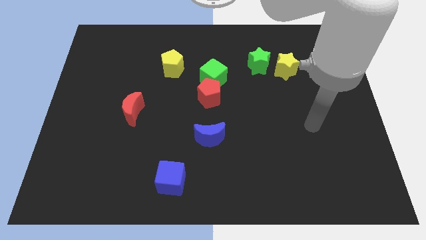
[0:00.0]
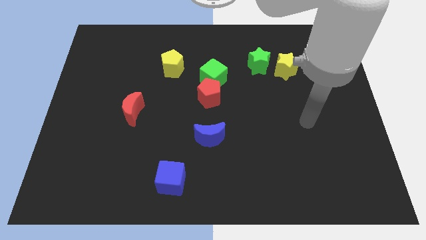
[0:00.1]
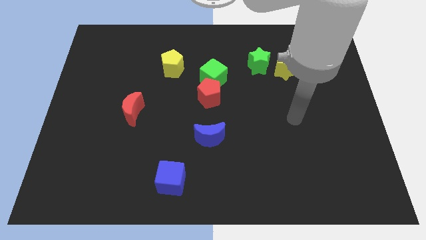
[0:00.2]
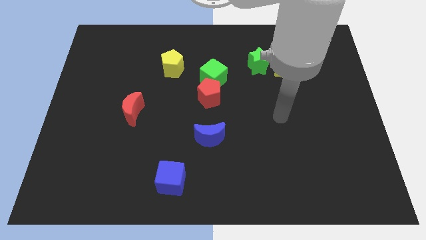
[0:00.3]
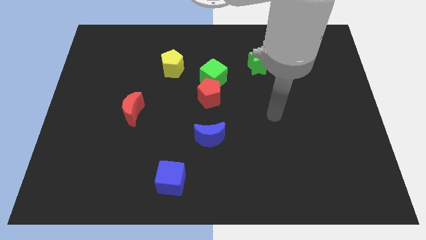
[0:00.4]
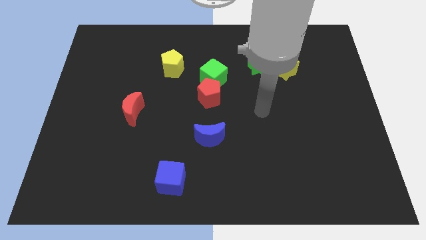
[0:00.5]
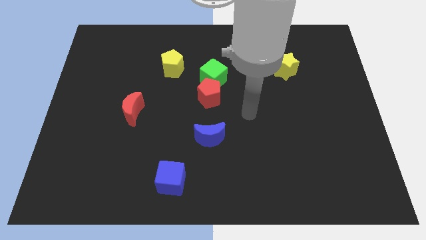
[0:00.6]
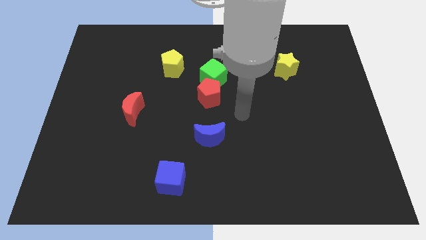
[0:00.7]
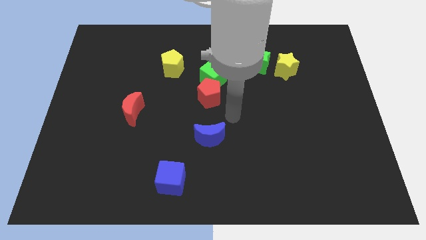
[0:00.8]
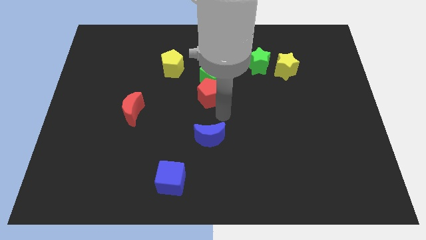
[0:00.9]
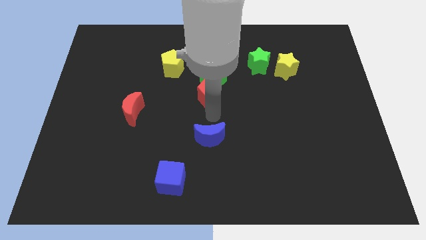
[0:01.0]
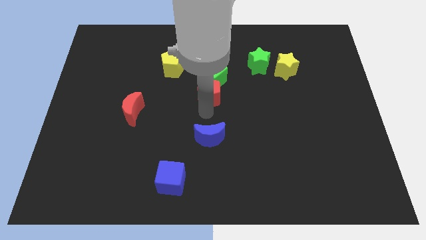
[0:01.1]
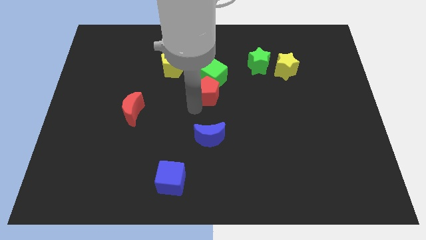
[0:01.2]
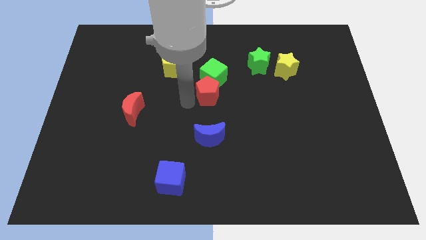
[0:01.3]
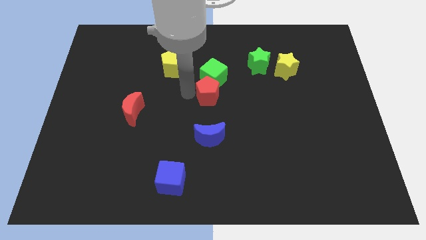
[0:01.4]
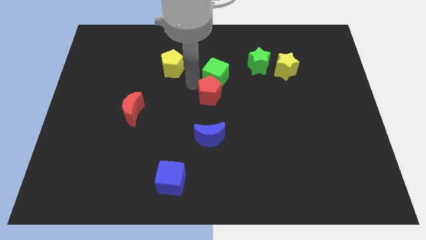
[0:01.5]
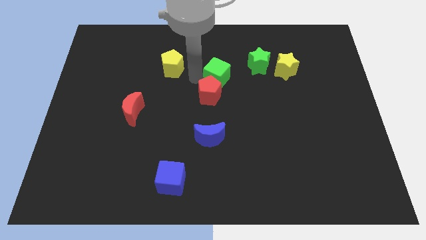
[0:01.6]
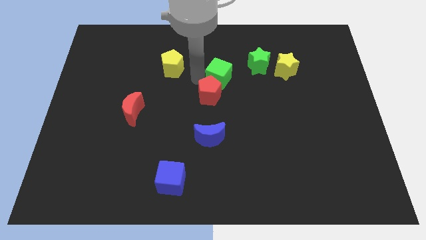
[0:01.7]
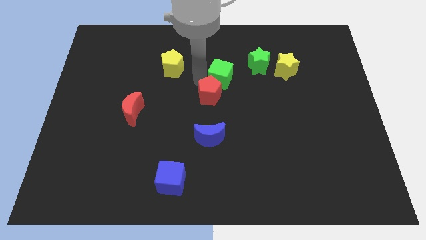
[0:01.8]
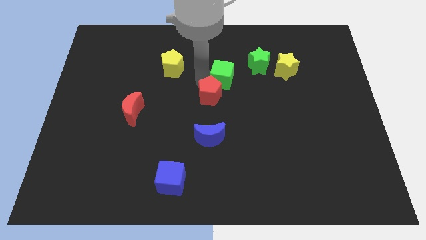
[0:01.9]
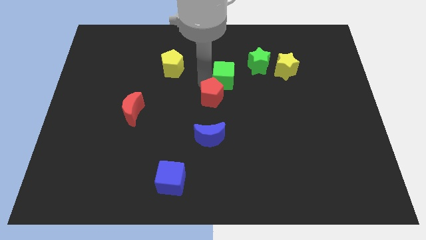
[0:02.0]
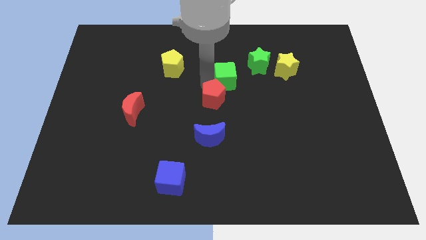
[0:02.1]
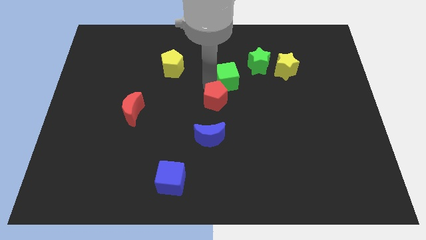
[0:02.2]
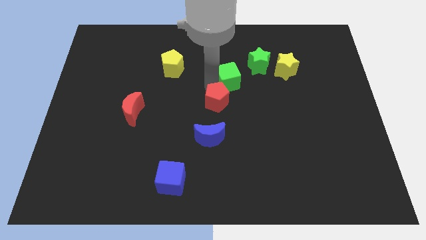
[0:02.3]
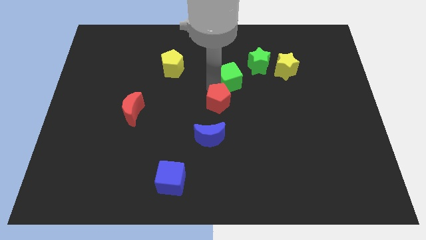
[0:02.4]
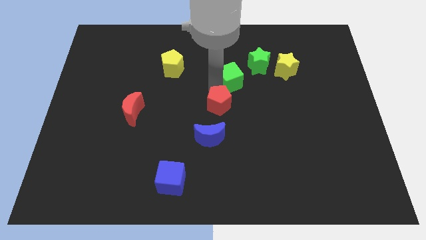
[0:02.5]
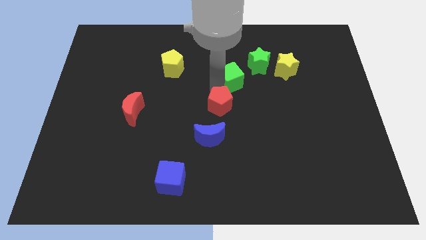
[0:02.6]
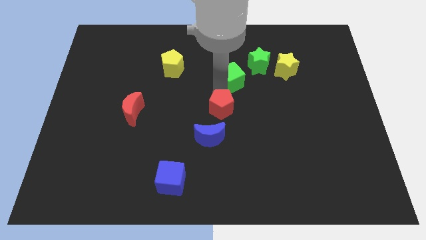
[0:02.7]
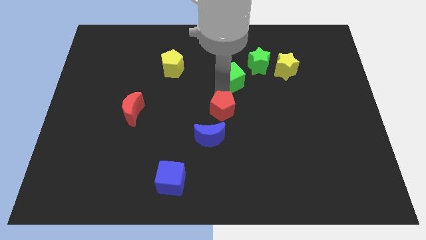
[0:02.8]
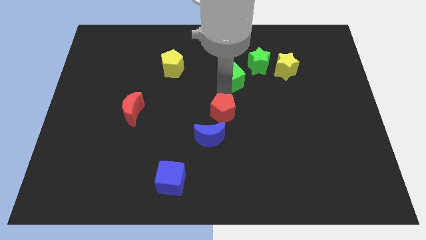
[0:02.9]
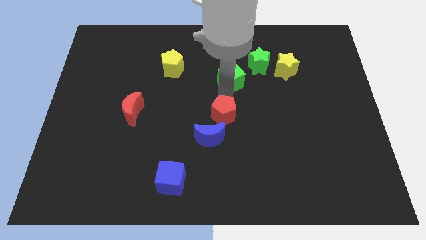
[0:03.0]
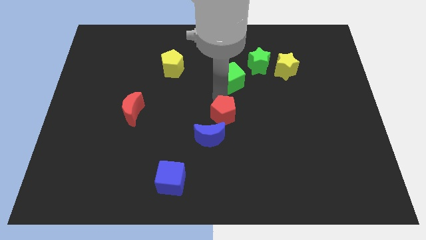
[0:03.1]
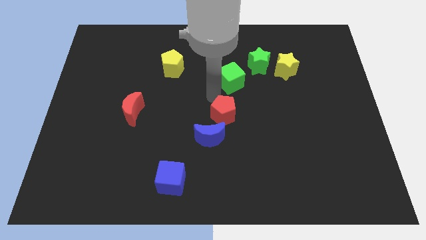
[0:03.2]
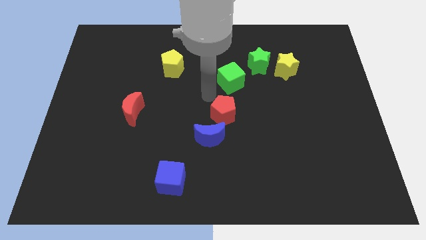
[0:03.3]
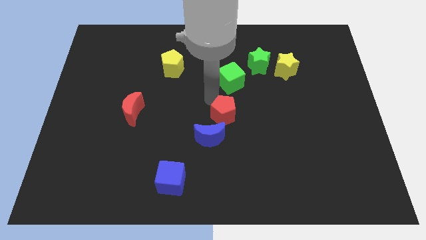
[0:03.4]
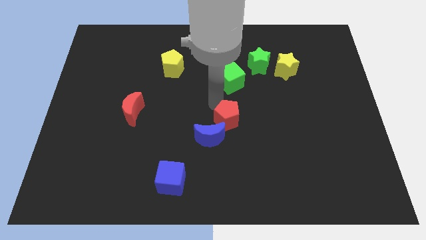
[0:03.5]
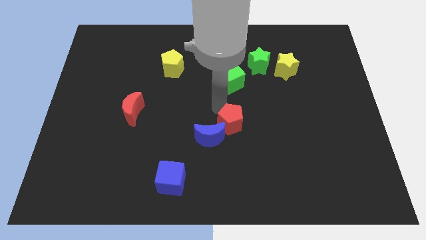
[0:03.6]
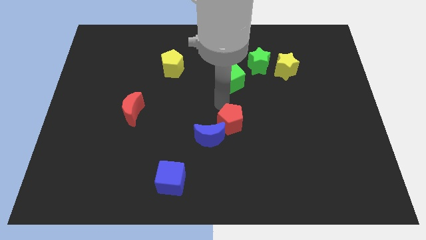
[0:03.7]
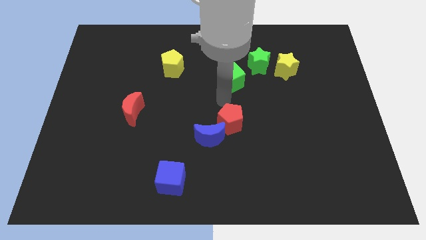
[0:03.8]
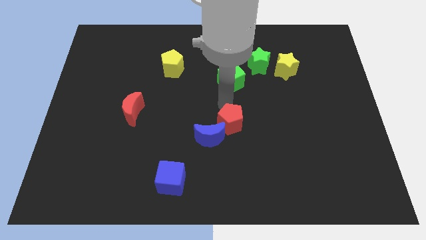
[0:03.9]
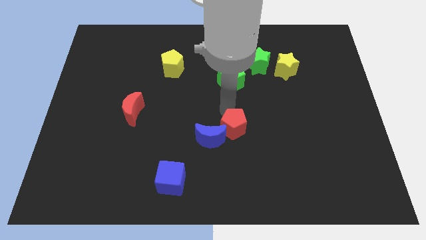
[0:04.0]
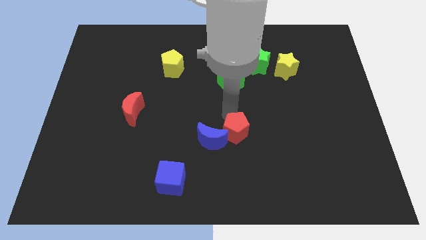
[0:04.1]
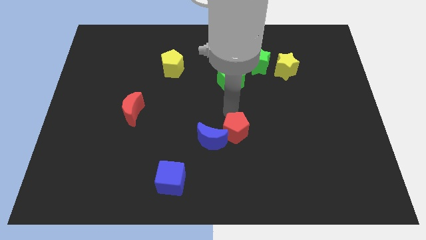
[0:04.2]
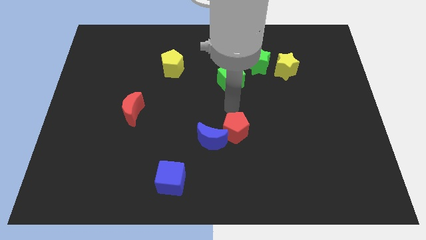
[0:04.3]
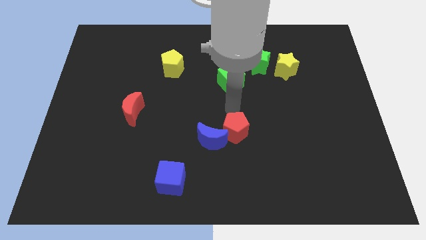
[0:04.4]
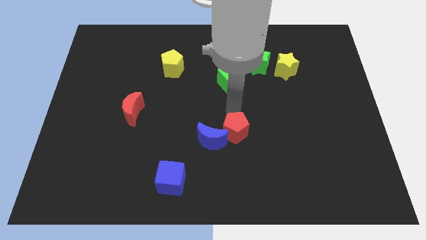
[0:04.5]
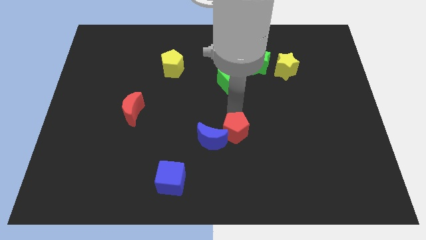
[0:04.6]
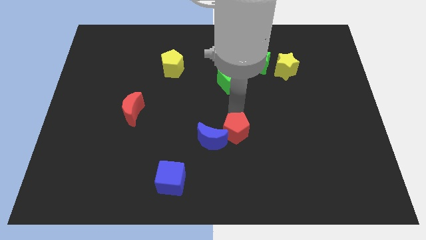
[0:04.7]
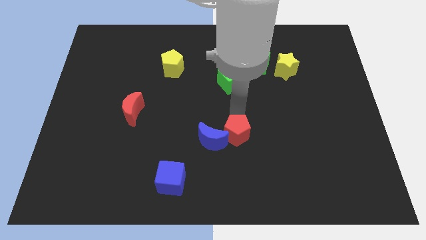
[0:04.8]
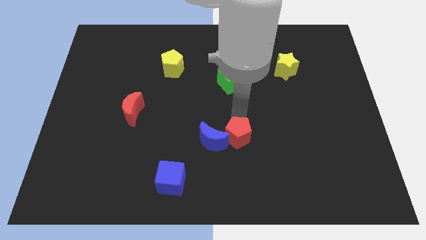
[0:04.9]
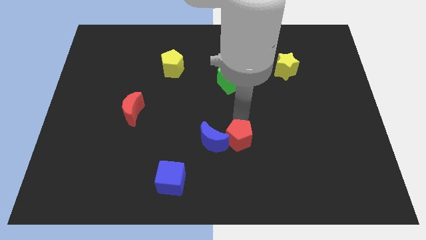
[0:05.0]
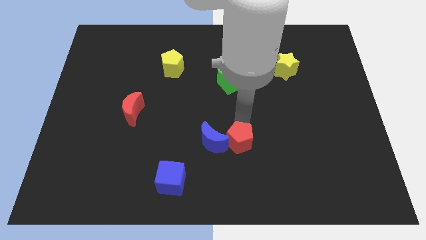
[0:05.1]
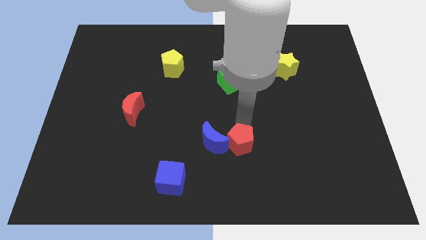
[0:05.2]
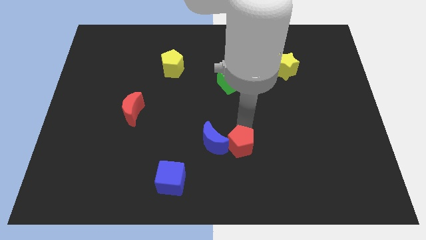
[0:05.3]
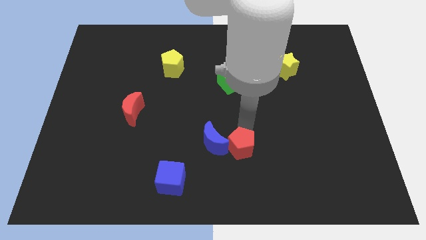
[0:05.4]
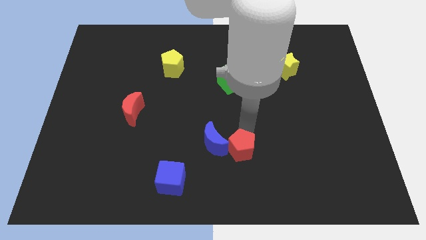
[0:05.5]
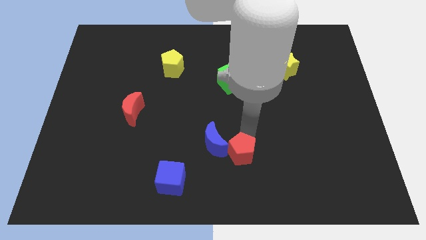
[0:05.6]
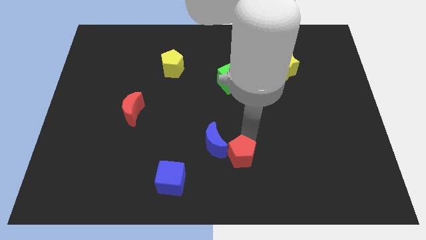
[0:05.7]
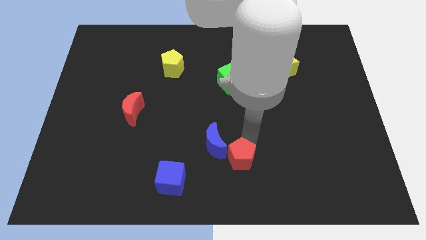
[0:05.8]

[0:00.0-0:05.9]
push the red pentagon to the bottom
